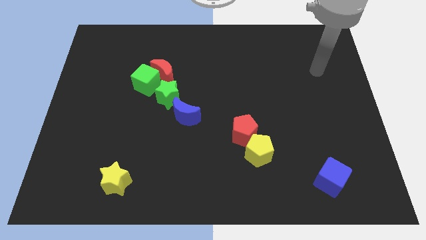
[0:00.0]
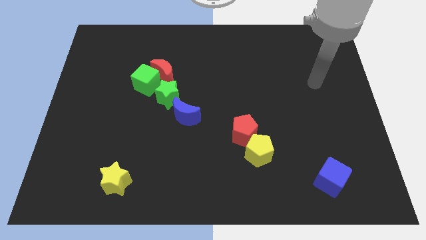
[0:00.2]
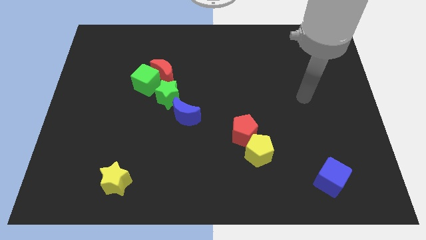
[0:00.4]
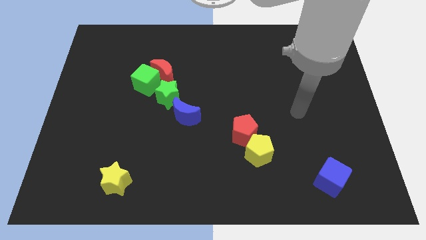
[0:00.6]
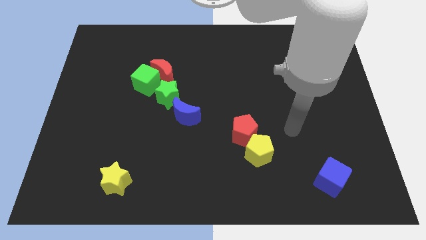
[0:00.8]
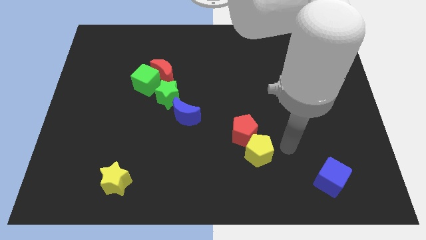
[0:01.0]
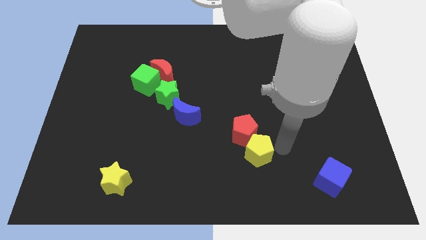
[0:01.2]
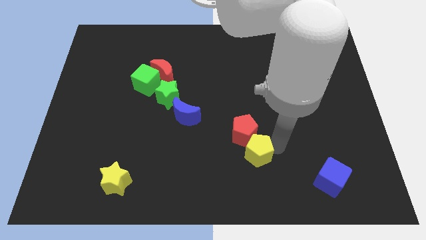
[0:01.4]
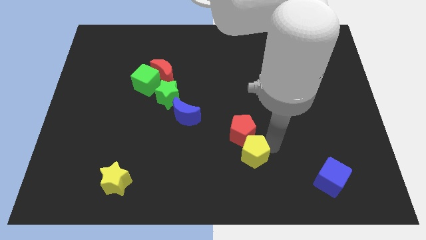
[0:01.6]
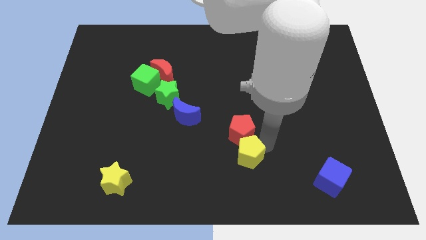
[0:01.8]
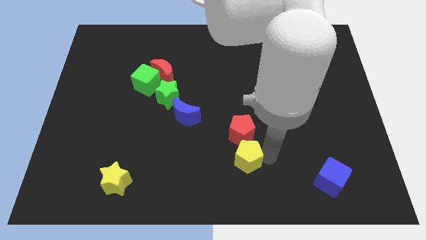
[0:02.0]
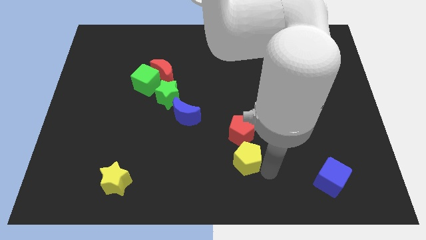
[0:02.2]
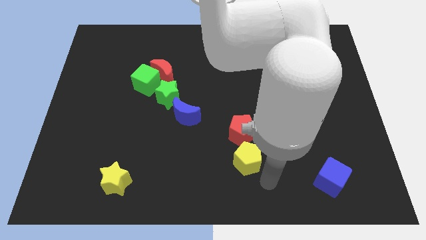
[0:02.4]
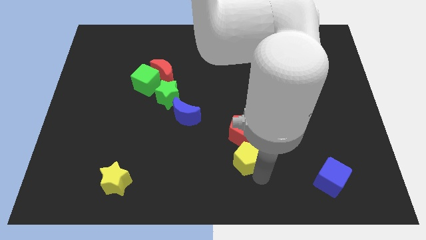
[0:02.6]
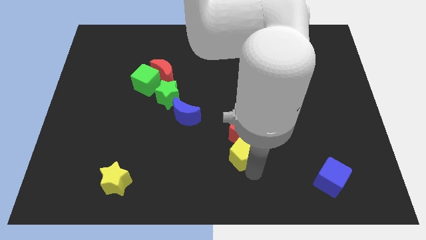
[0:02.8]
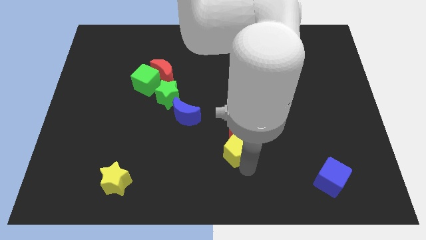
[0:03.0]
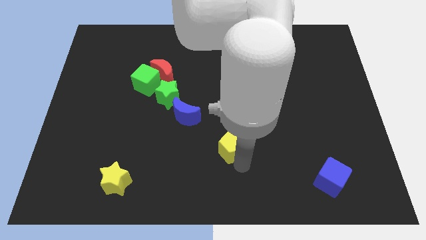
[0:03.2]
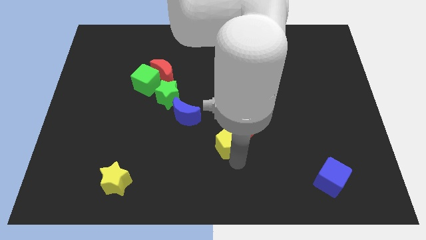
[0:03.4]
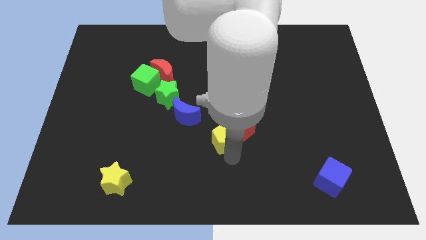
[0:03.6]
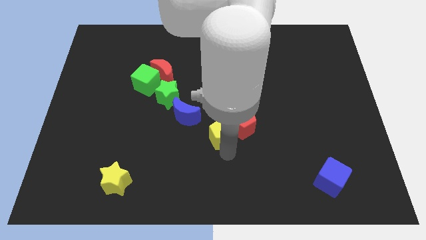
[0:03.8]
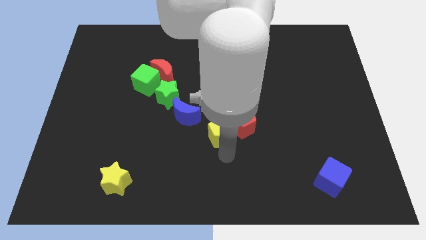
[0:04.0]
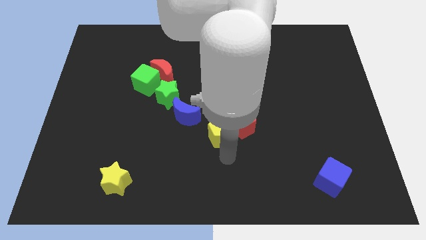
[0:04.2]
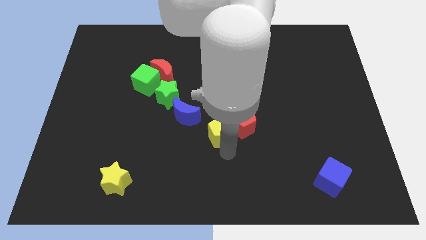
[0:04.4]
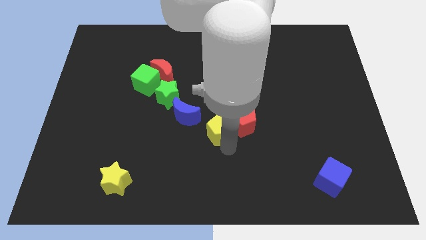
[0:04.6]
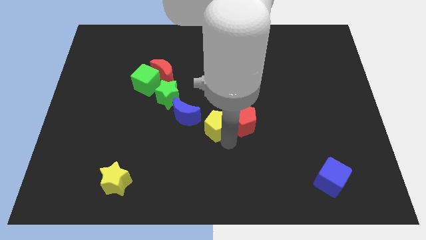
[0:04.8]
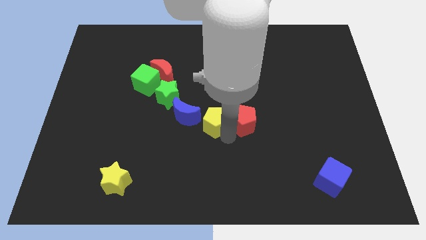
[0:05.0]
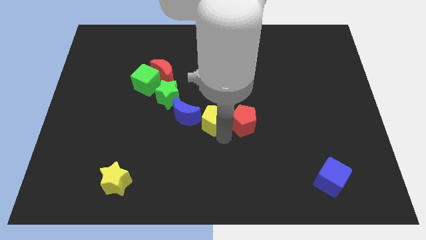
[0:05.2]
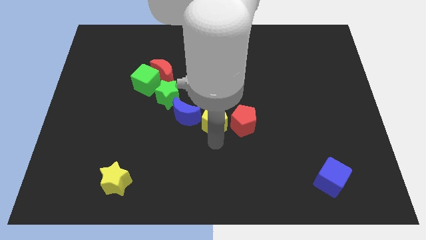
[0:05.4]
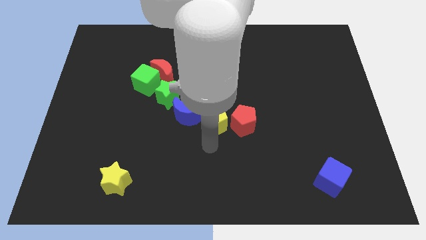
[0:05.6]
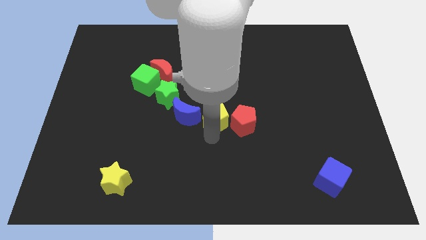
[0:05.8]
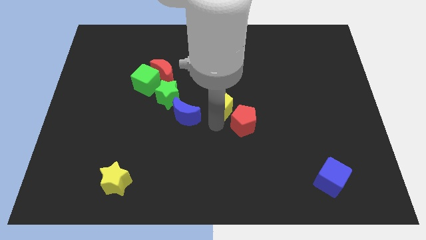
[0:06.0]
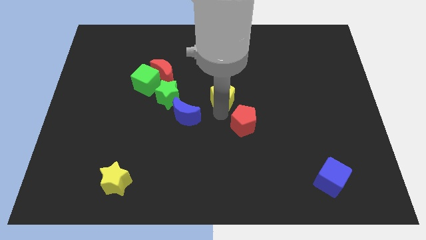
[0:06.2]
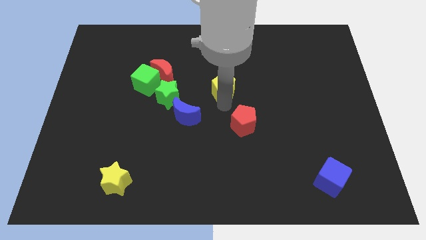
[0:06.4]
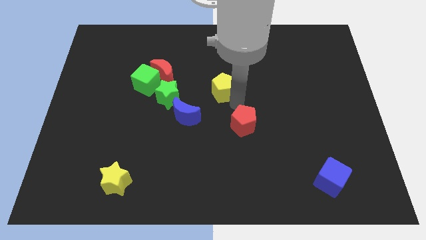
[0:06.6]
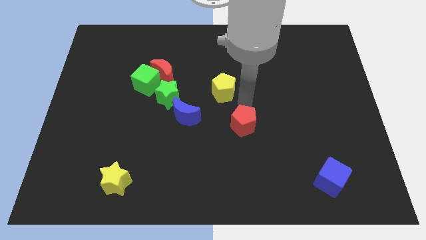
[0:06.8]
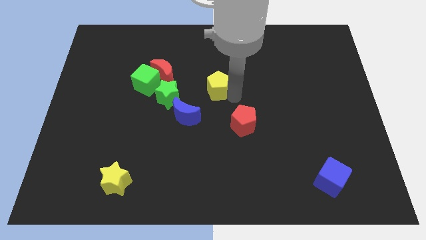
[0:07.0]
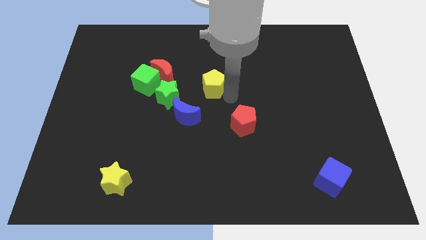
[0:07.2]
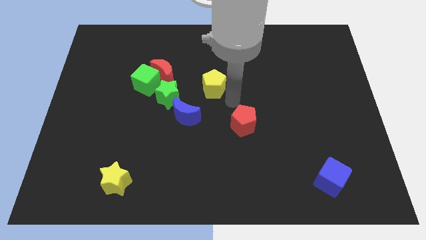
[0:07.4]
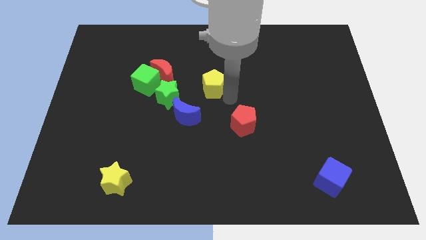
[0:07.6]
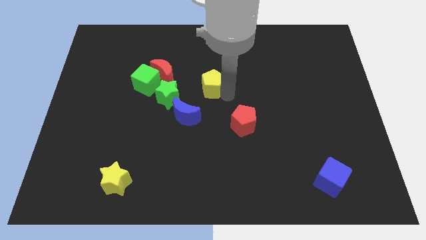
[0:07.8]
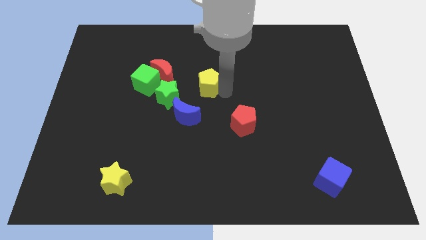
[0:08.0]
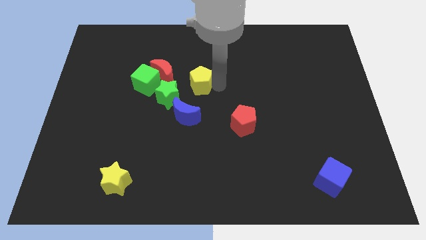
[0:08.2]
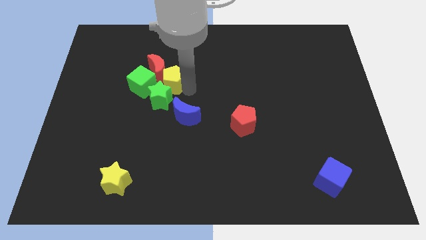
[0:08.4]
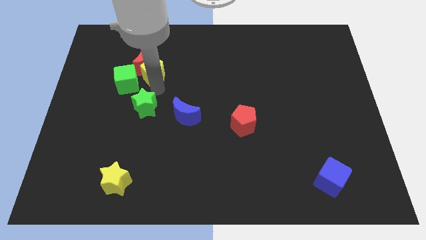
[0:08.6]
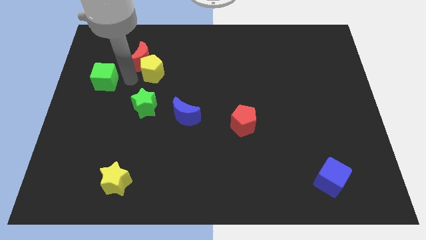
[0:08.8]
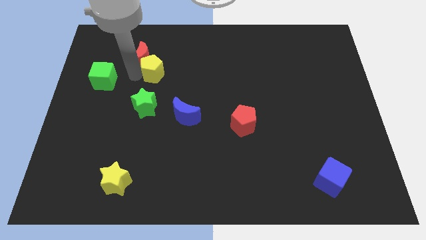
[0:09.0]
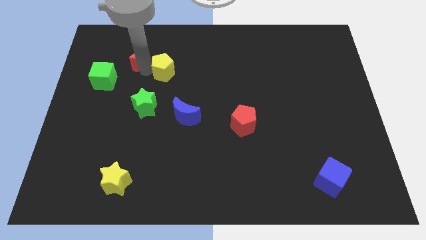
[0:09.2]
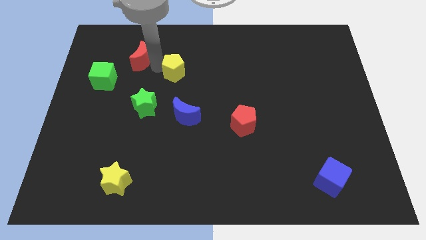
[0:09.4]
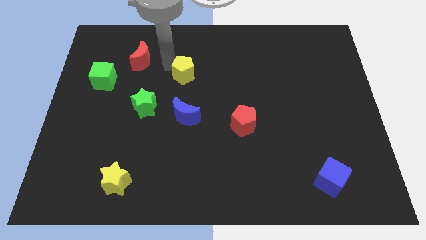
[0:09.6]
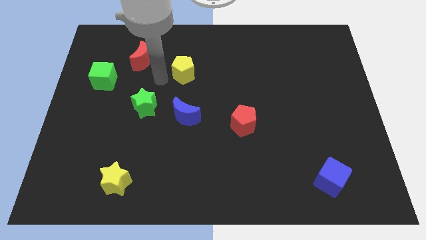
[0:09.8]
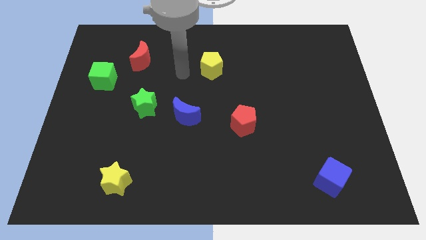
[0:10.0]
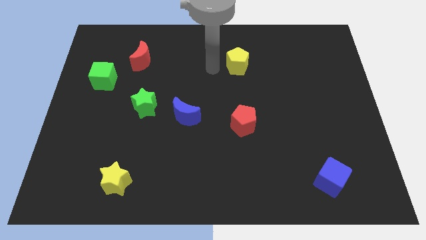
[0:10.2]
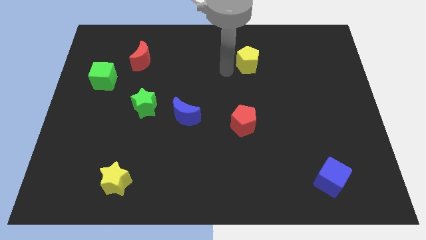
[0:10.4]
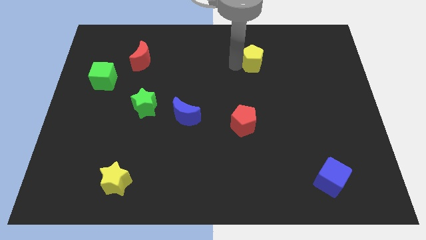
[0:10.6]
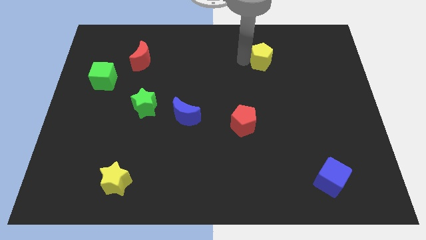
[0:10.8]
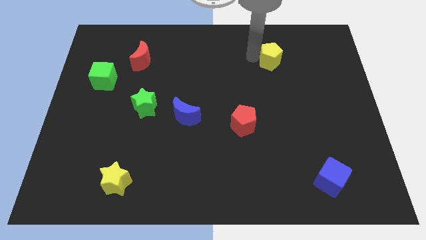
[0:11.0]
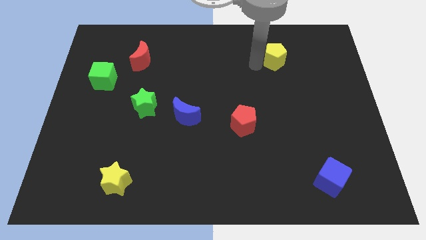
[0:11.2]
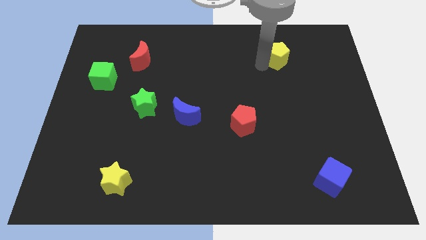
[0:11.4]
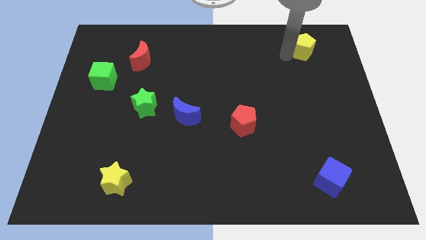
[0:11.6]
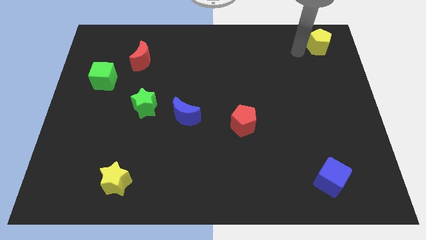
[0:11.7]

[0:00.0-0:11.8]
slide the yellow pentagon to the top right
